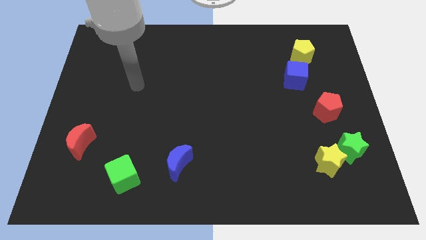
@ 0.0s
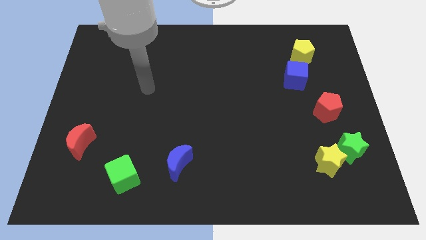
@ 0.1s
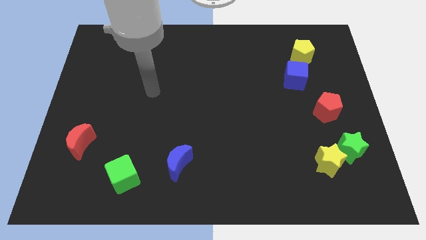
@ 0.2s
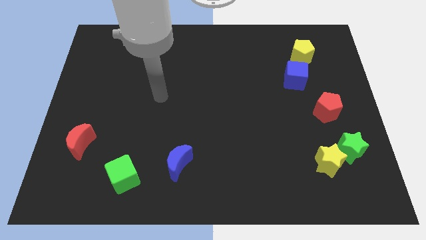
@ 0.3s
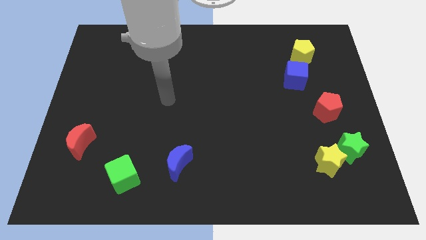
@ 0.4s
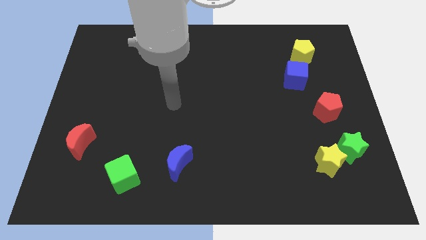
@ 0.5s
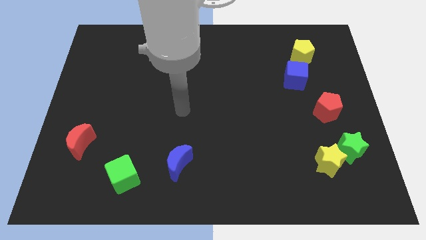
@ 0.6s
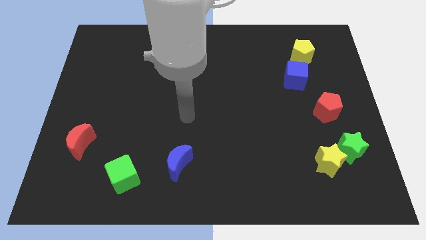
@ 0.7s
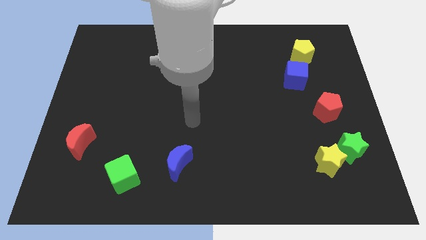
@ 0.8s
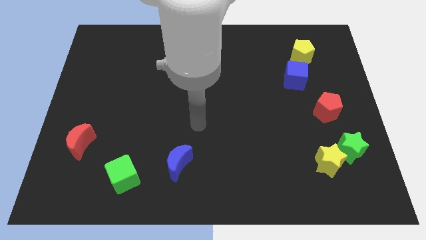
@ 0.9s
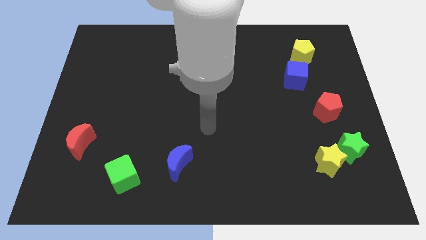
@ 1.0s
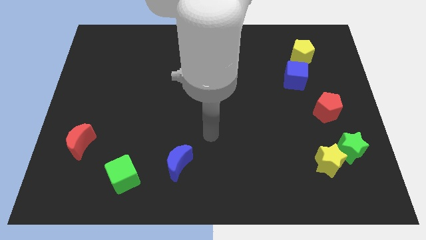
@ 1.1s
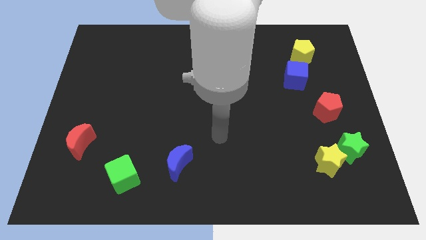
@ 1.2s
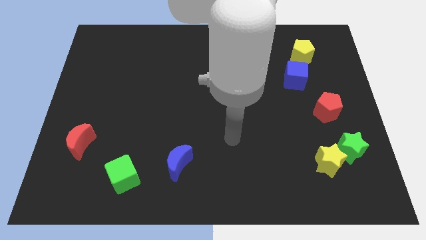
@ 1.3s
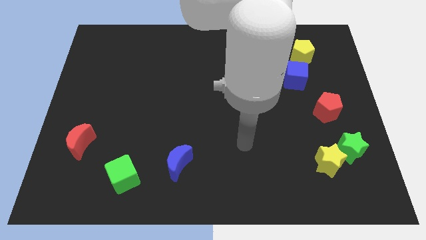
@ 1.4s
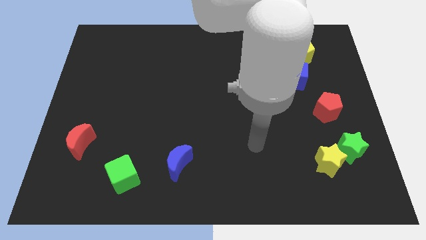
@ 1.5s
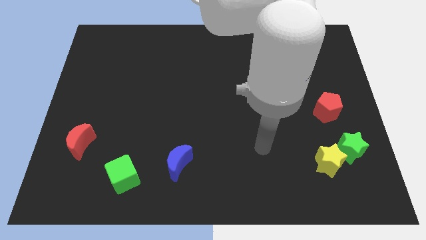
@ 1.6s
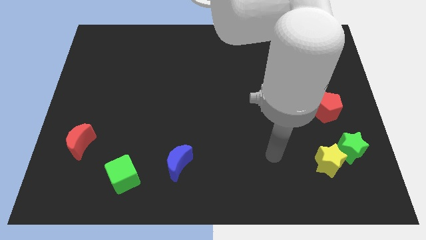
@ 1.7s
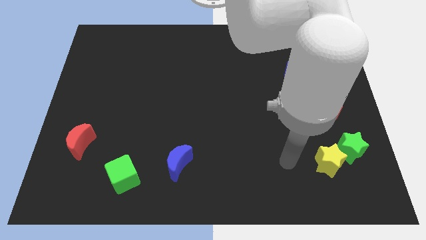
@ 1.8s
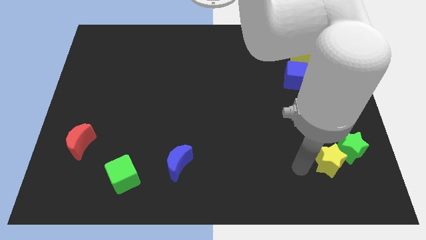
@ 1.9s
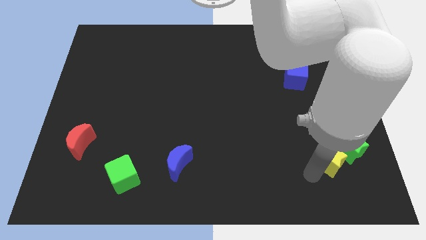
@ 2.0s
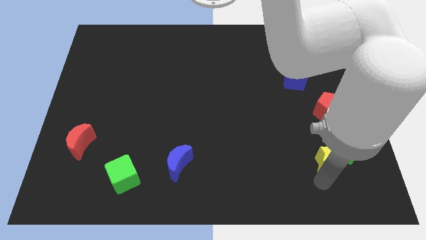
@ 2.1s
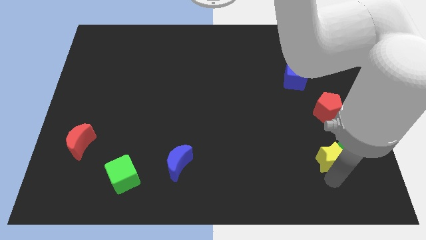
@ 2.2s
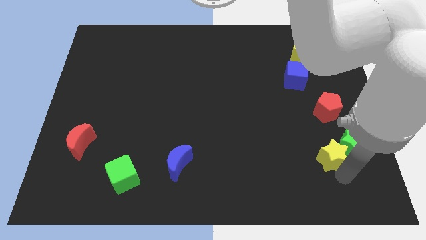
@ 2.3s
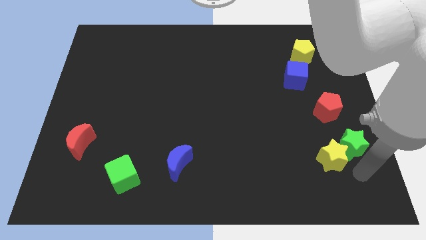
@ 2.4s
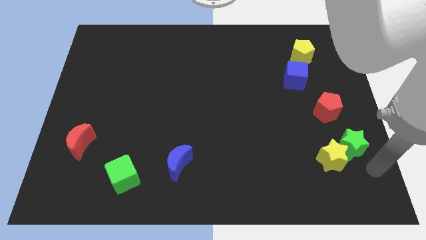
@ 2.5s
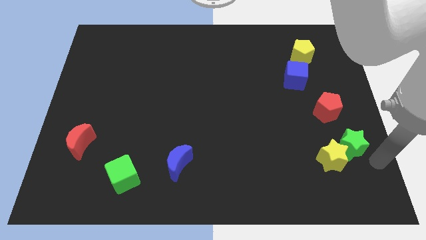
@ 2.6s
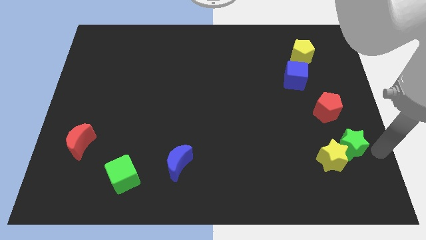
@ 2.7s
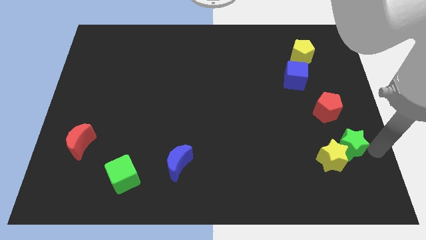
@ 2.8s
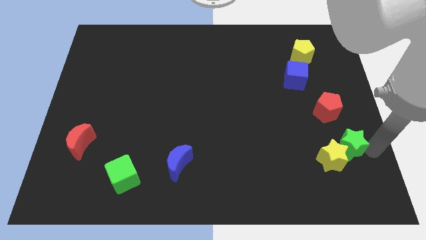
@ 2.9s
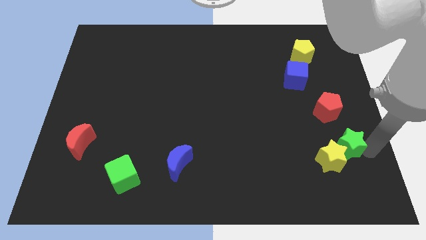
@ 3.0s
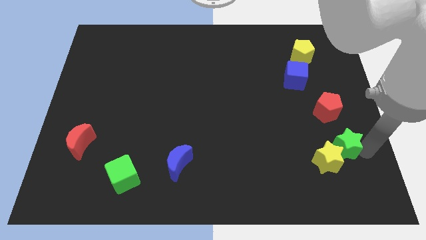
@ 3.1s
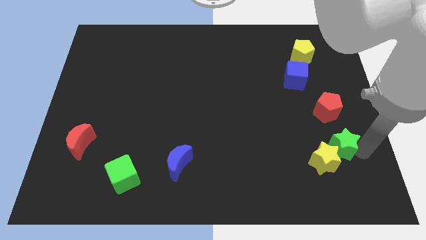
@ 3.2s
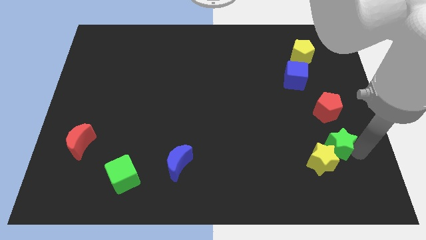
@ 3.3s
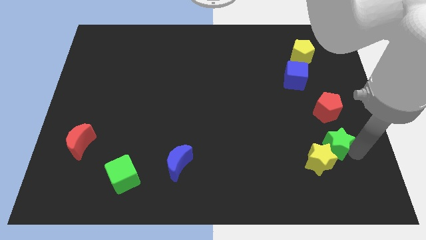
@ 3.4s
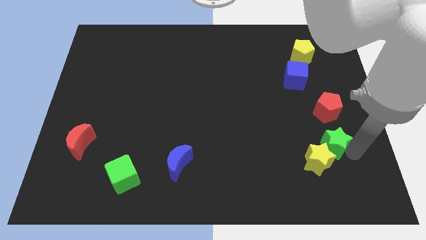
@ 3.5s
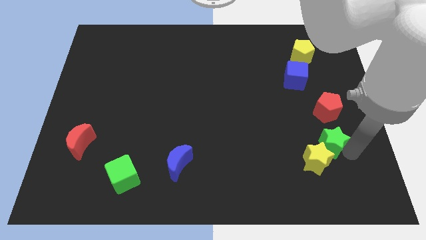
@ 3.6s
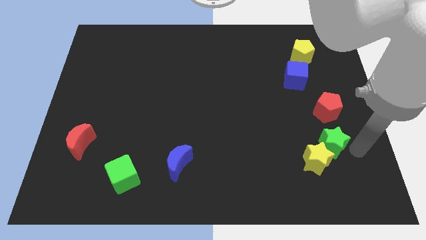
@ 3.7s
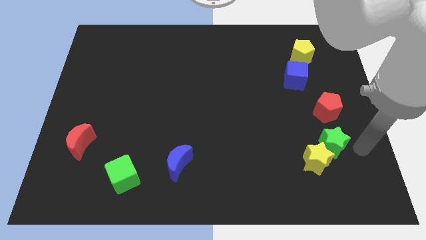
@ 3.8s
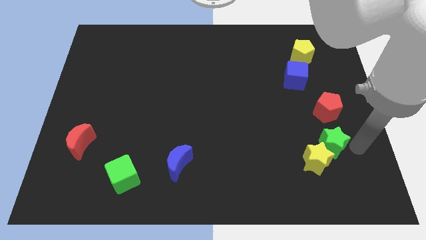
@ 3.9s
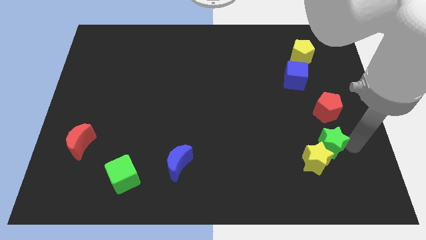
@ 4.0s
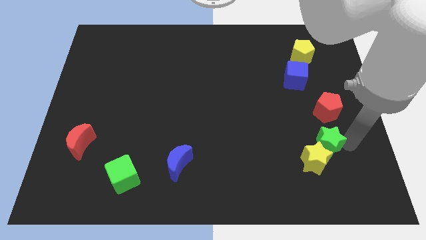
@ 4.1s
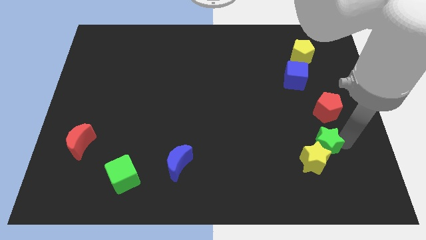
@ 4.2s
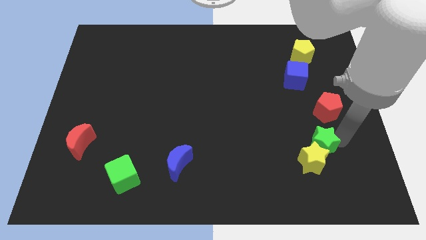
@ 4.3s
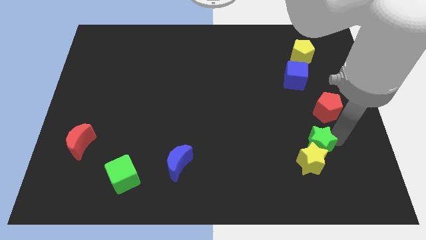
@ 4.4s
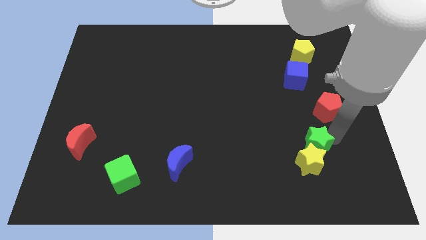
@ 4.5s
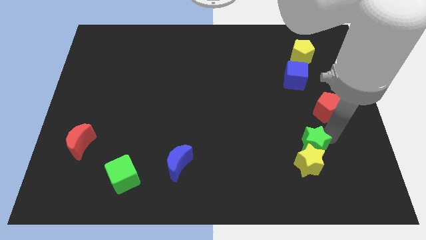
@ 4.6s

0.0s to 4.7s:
push the green star left a little bit

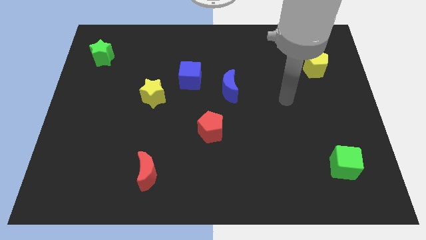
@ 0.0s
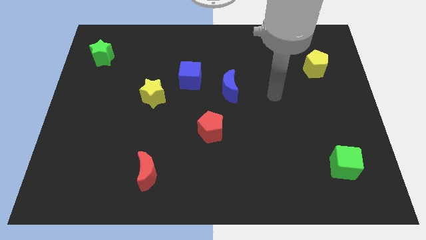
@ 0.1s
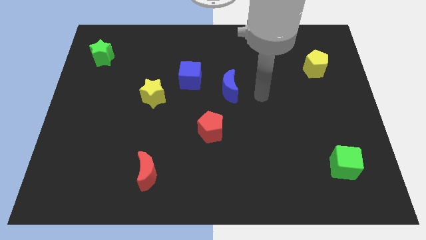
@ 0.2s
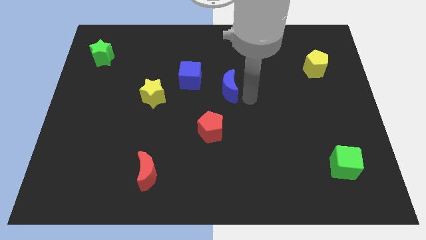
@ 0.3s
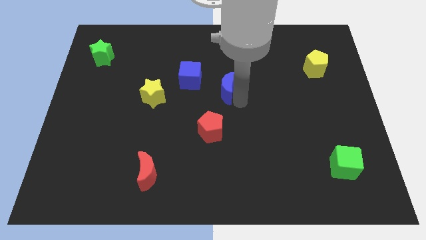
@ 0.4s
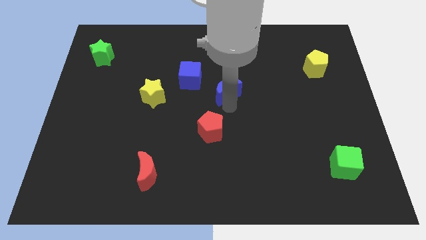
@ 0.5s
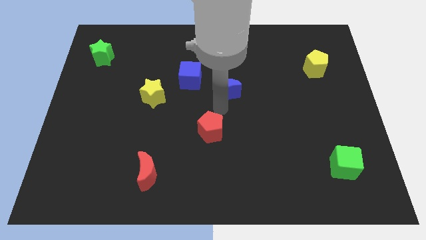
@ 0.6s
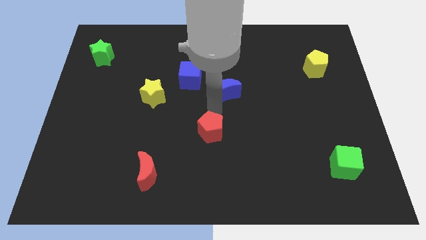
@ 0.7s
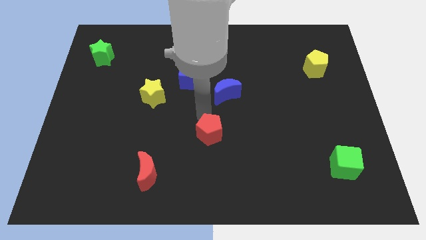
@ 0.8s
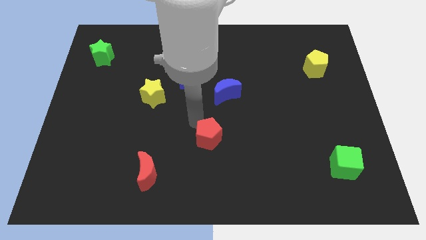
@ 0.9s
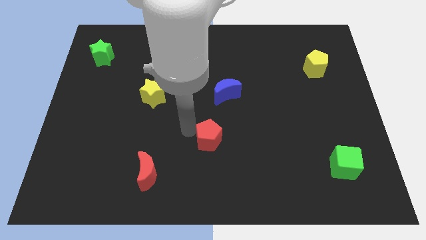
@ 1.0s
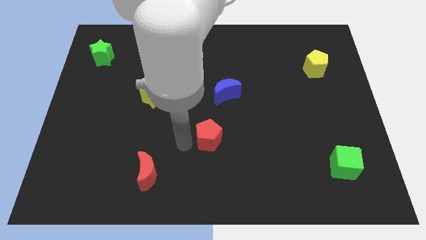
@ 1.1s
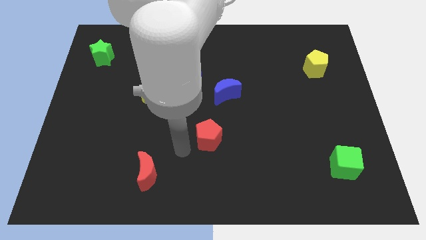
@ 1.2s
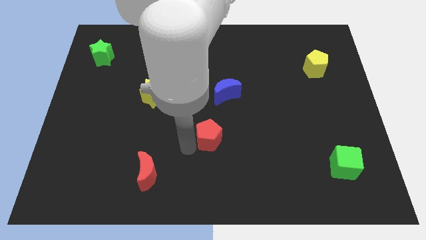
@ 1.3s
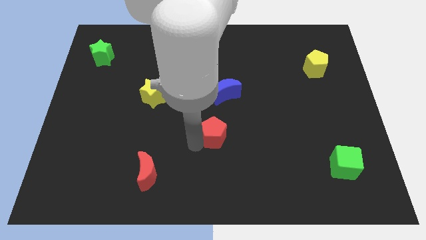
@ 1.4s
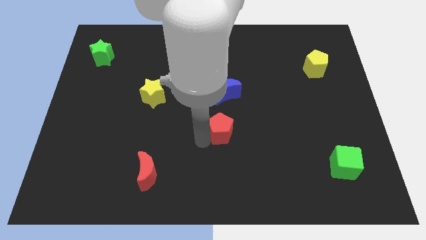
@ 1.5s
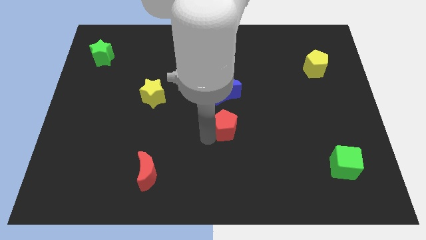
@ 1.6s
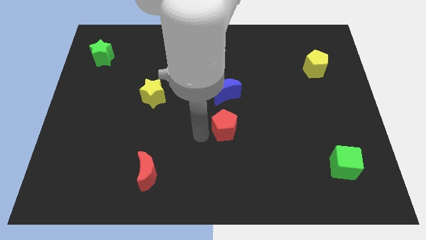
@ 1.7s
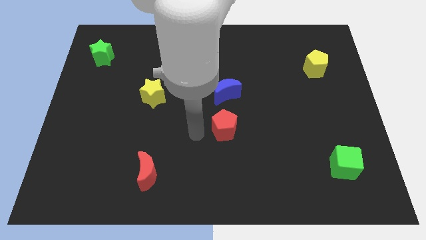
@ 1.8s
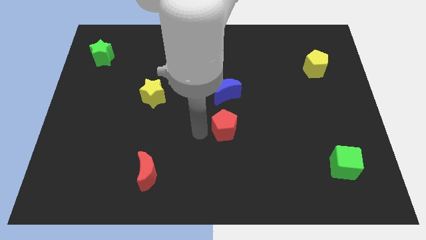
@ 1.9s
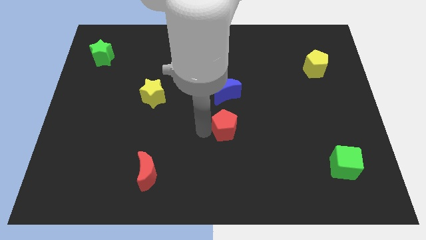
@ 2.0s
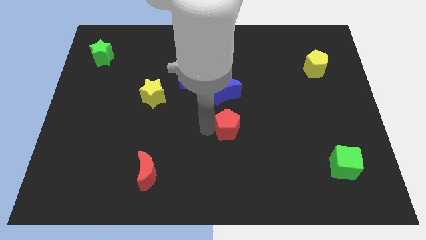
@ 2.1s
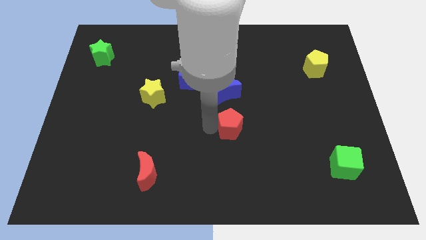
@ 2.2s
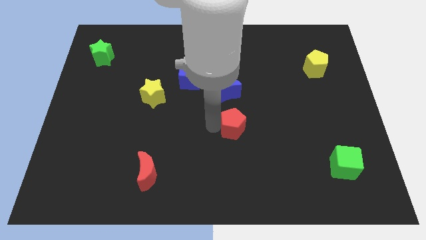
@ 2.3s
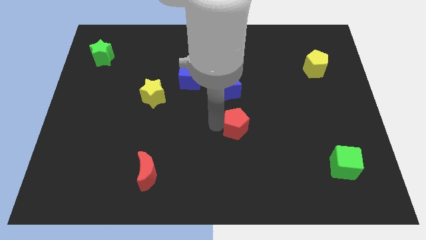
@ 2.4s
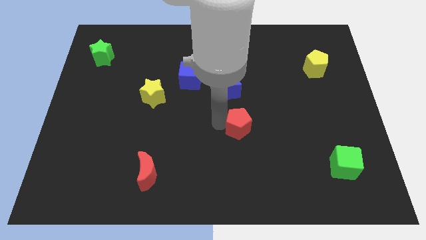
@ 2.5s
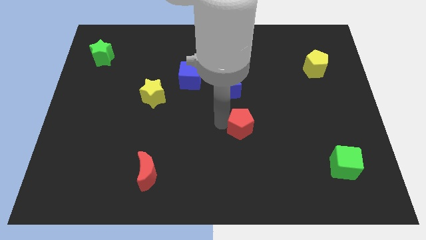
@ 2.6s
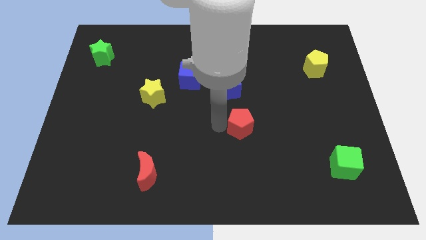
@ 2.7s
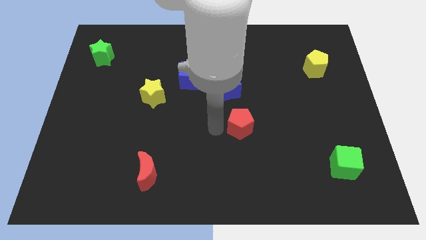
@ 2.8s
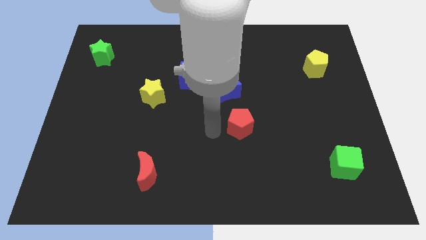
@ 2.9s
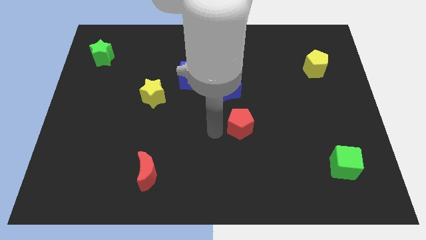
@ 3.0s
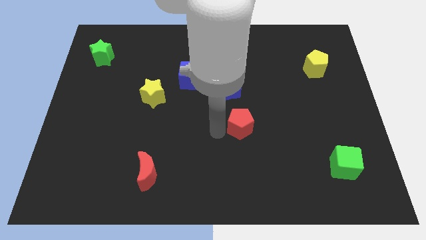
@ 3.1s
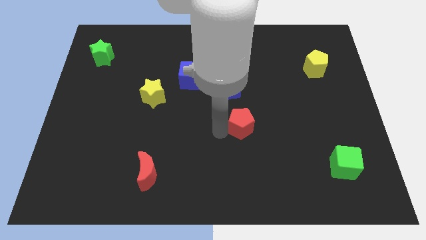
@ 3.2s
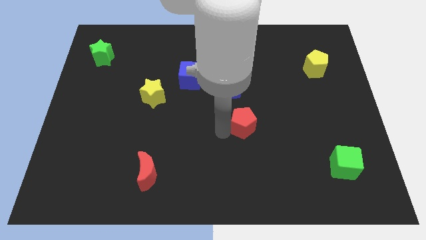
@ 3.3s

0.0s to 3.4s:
slide the red pentagon a little to the right

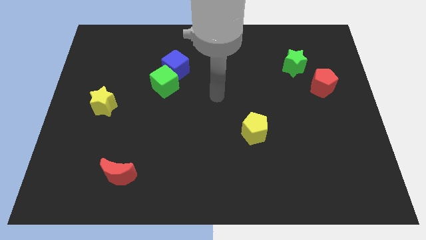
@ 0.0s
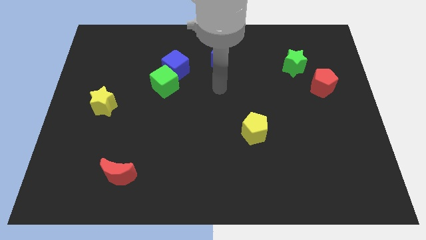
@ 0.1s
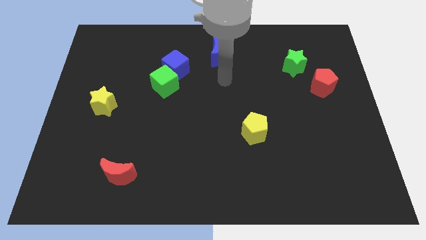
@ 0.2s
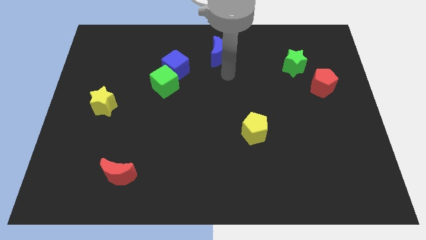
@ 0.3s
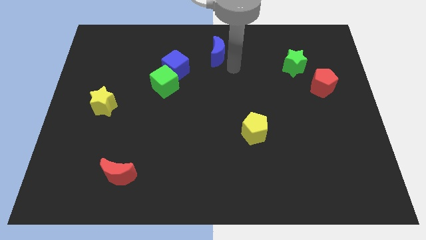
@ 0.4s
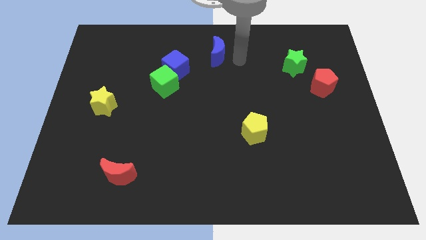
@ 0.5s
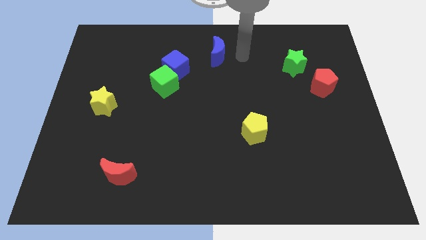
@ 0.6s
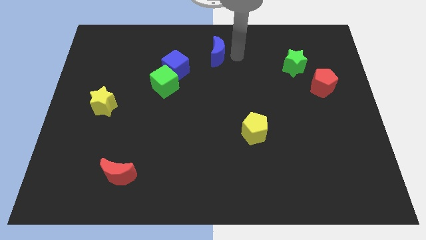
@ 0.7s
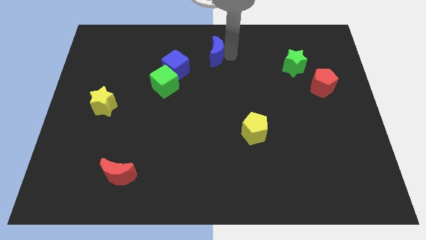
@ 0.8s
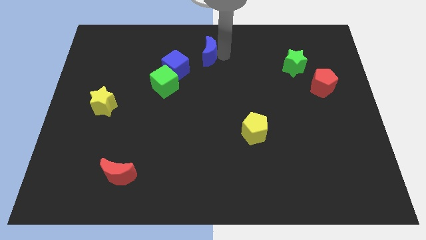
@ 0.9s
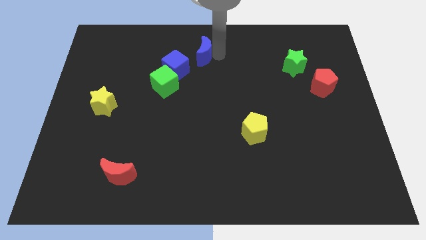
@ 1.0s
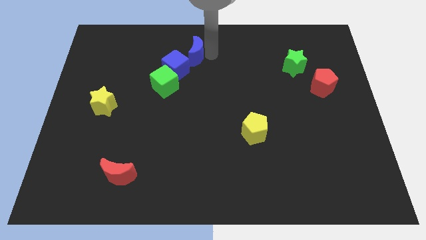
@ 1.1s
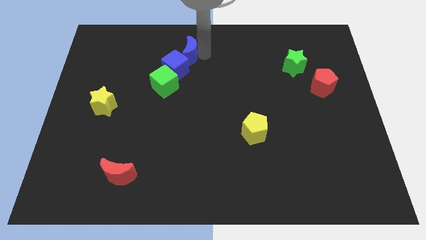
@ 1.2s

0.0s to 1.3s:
slide the blue moon to the left a little bit
